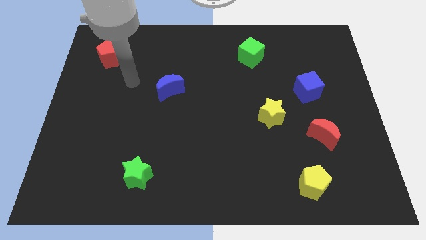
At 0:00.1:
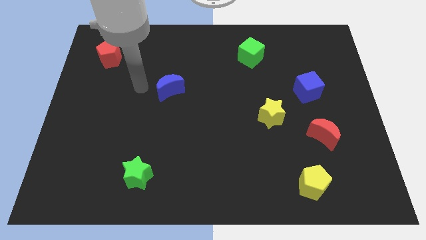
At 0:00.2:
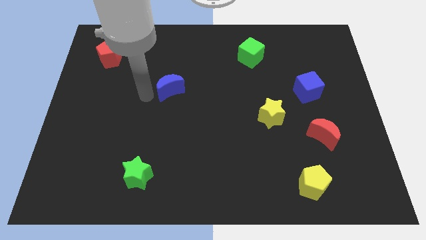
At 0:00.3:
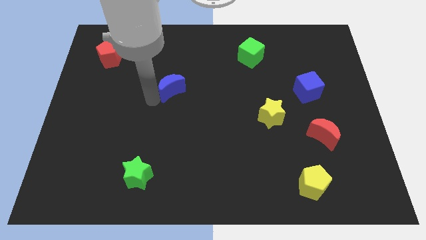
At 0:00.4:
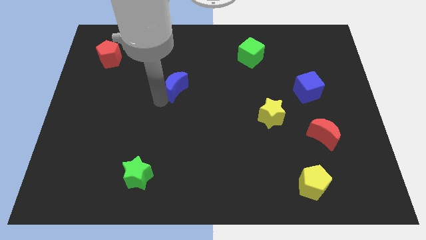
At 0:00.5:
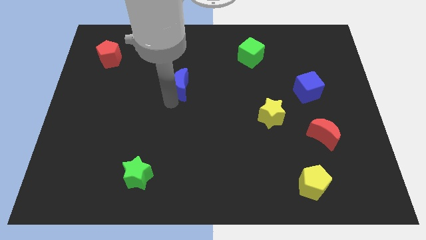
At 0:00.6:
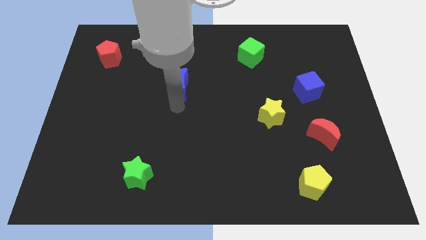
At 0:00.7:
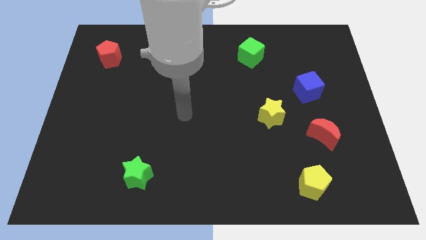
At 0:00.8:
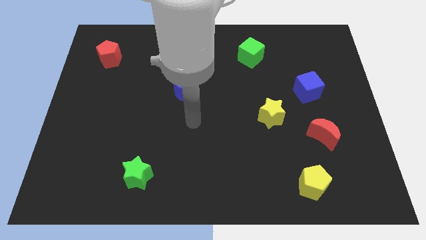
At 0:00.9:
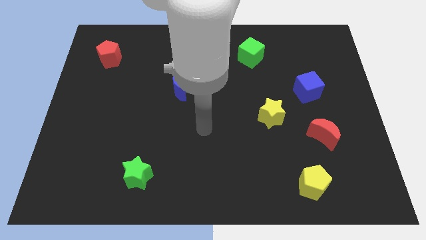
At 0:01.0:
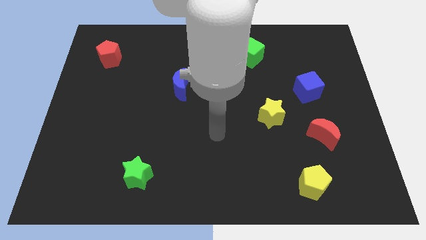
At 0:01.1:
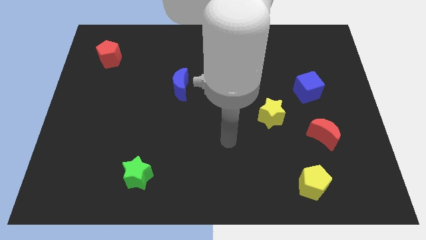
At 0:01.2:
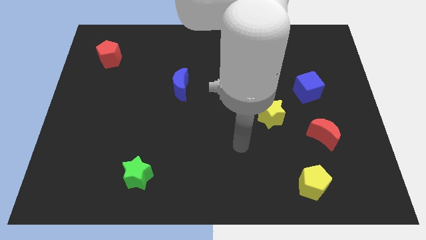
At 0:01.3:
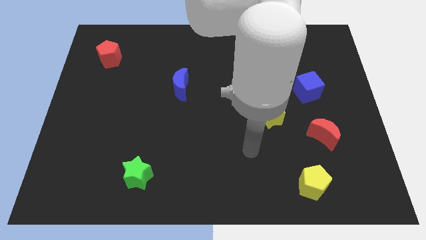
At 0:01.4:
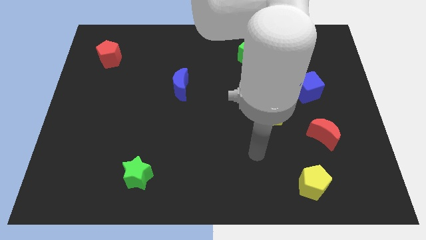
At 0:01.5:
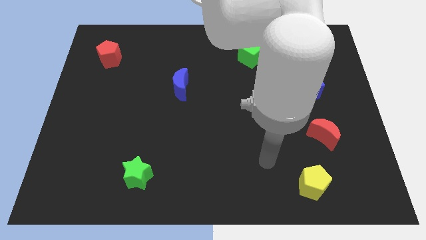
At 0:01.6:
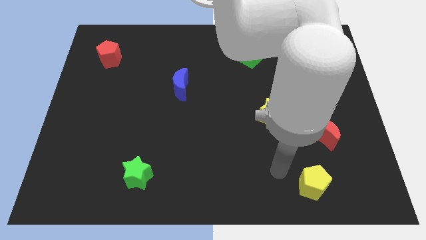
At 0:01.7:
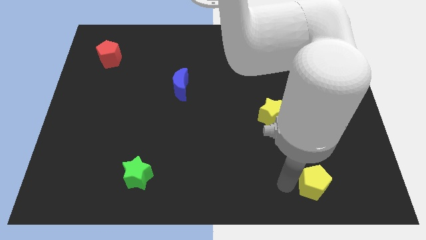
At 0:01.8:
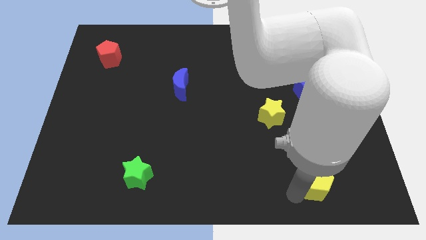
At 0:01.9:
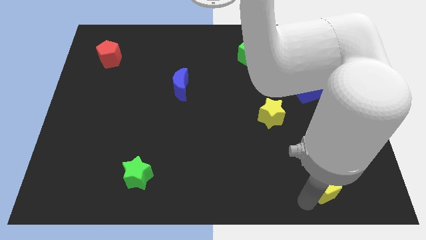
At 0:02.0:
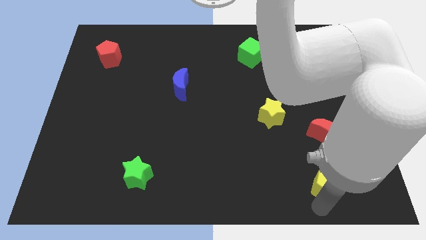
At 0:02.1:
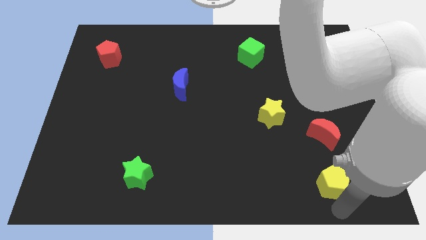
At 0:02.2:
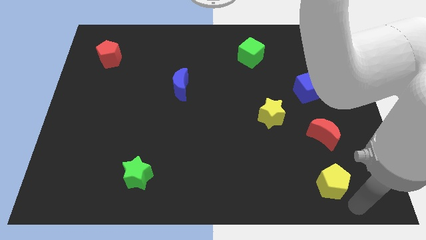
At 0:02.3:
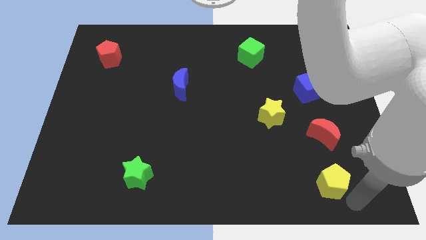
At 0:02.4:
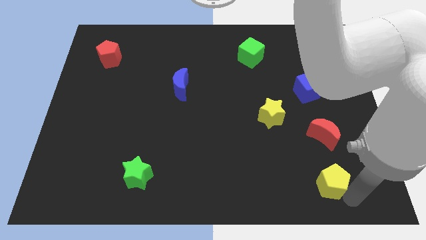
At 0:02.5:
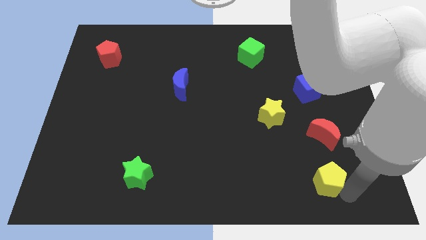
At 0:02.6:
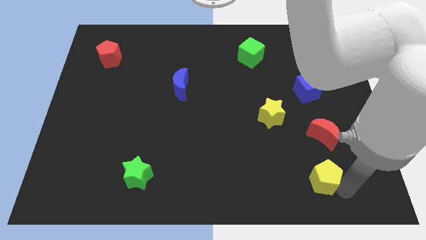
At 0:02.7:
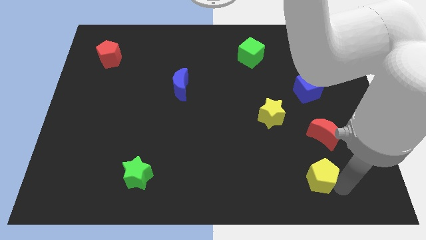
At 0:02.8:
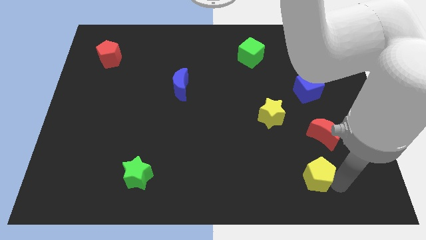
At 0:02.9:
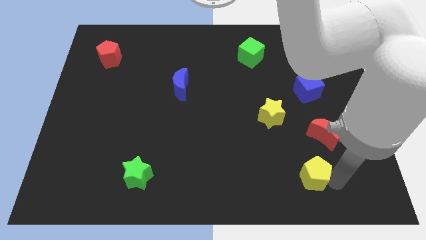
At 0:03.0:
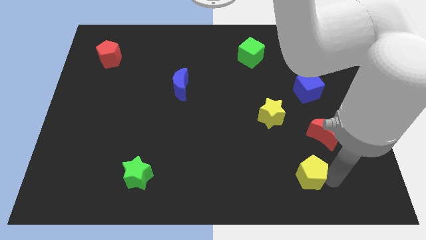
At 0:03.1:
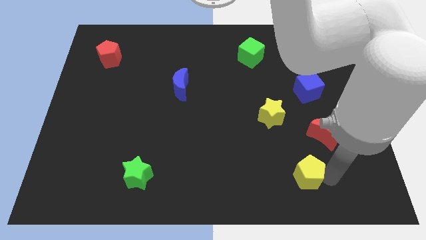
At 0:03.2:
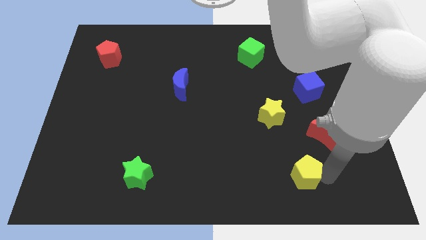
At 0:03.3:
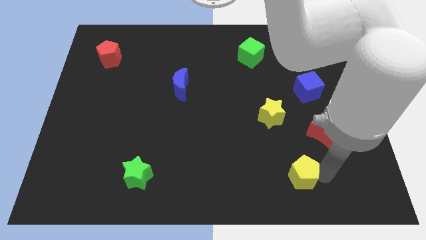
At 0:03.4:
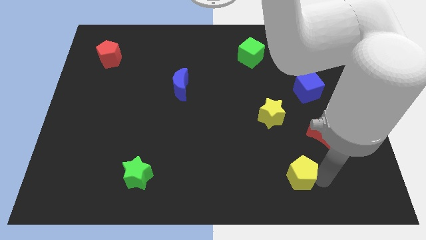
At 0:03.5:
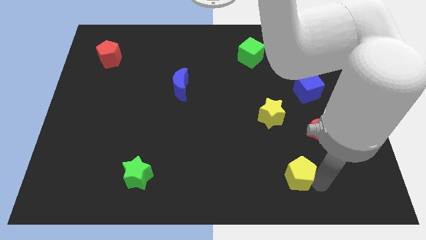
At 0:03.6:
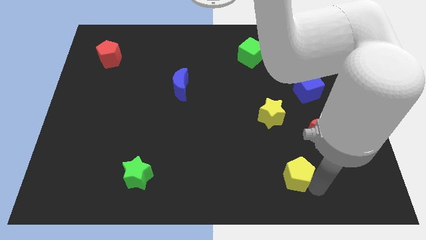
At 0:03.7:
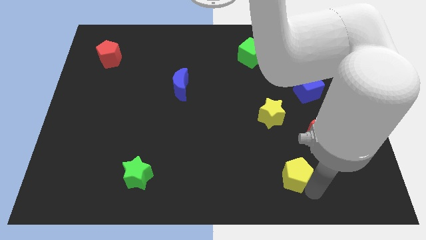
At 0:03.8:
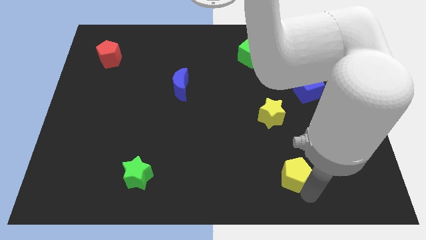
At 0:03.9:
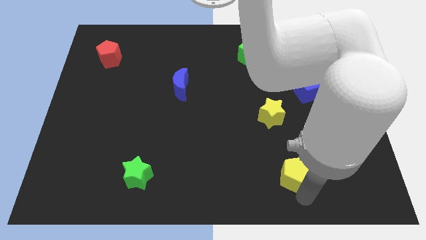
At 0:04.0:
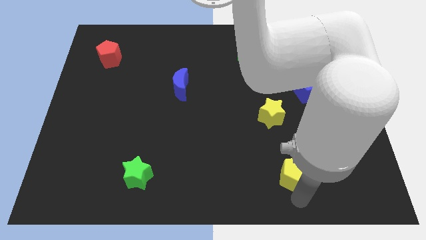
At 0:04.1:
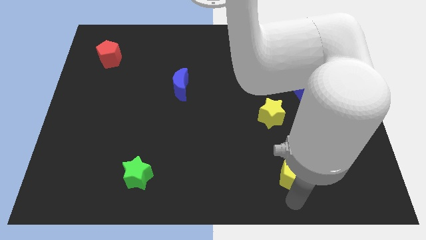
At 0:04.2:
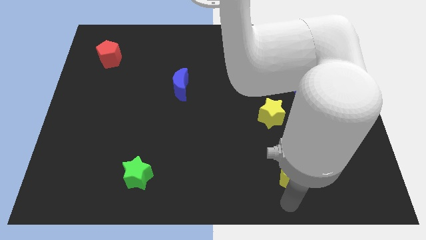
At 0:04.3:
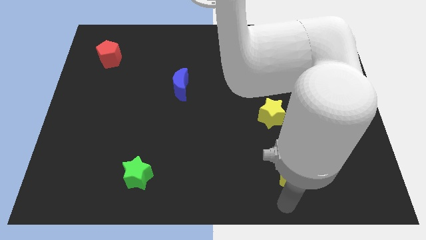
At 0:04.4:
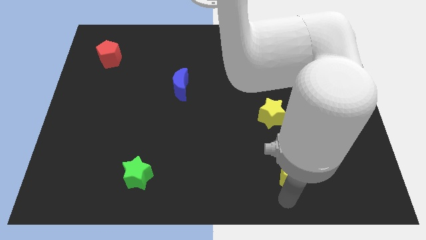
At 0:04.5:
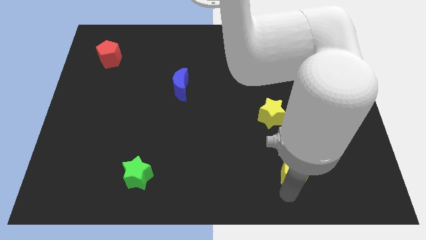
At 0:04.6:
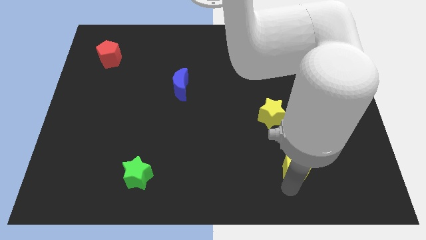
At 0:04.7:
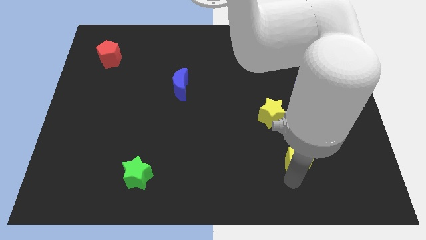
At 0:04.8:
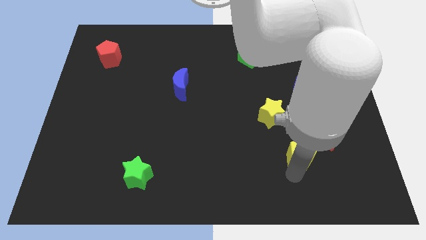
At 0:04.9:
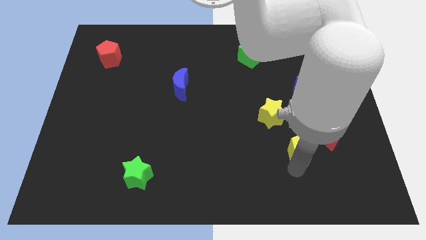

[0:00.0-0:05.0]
slightly slide the yellow pentagon up

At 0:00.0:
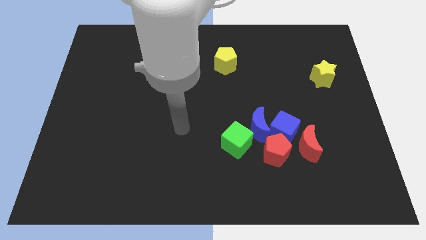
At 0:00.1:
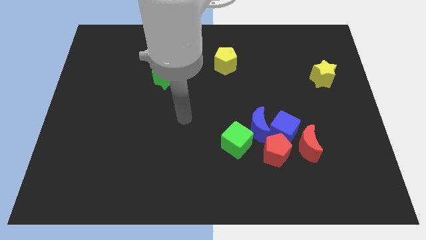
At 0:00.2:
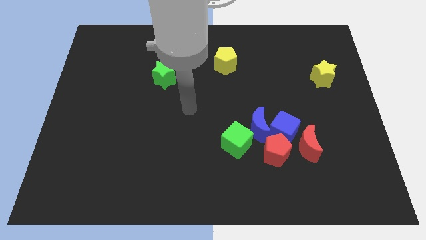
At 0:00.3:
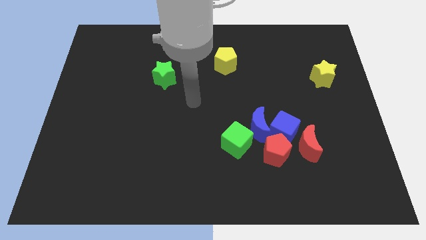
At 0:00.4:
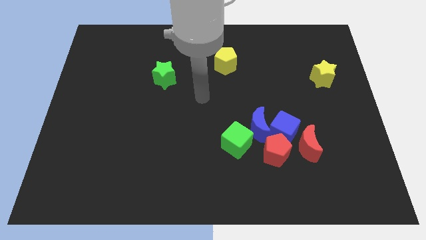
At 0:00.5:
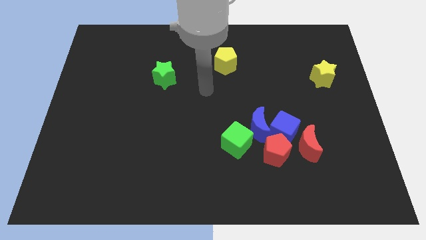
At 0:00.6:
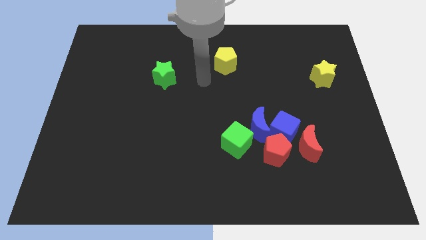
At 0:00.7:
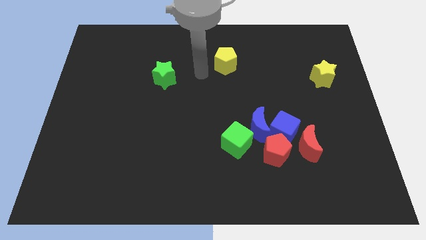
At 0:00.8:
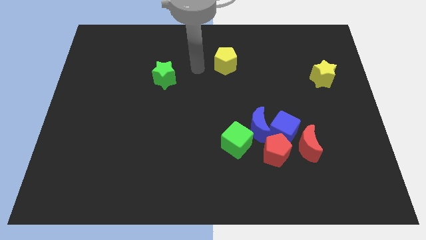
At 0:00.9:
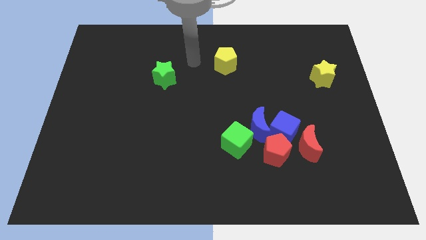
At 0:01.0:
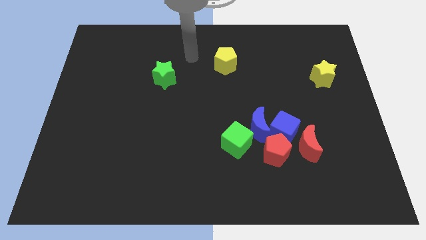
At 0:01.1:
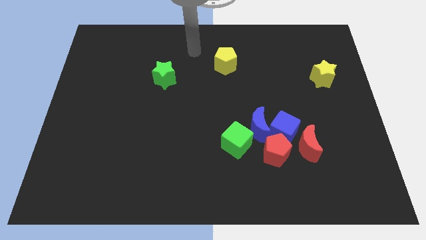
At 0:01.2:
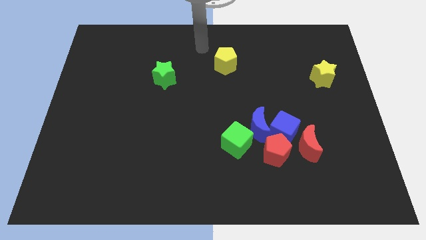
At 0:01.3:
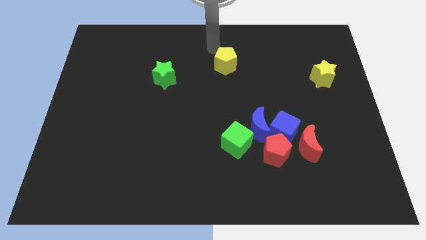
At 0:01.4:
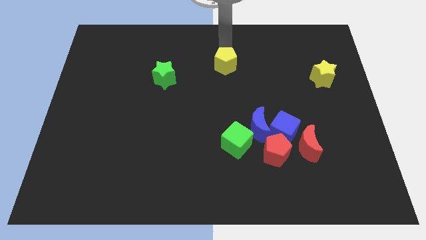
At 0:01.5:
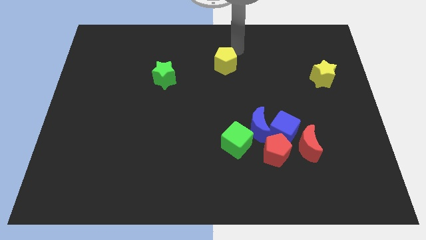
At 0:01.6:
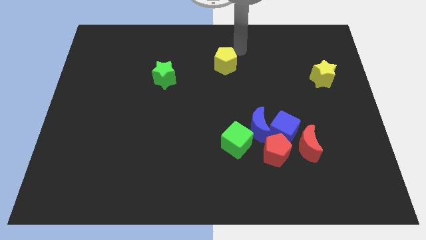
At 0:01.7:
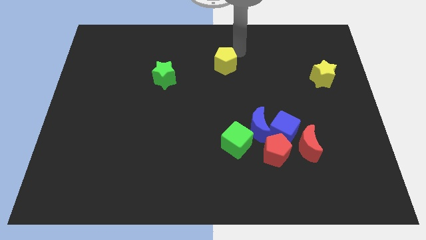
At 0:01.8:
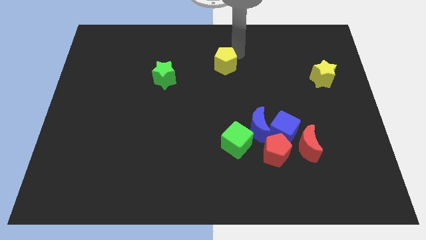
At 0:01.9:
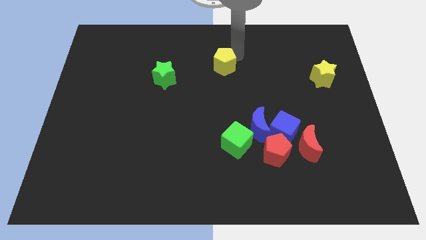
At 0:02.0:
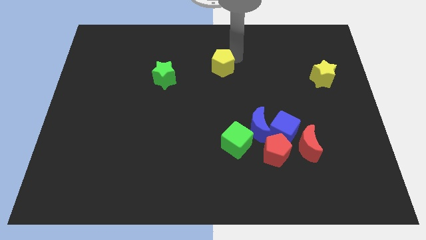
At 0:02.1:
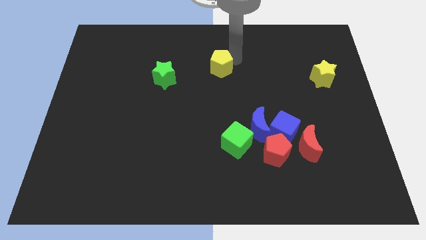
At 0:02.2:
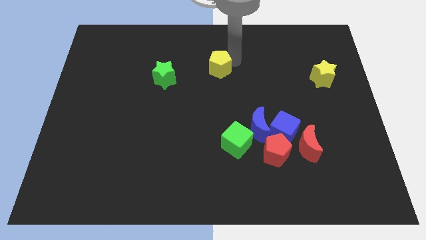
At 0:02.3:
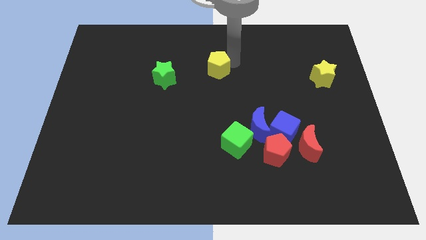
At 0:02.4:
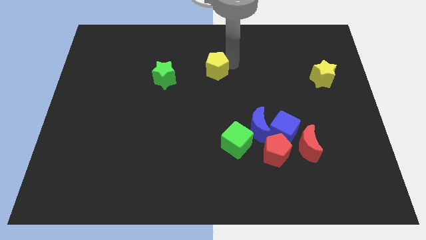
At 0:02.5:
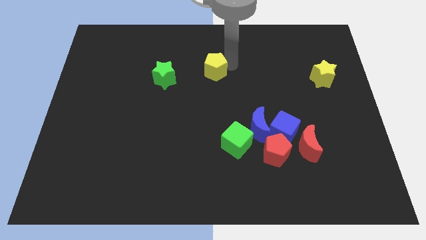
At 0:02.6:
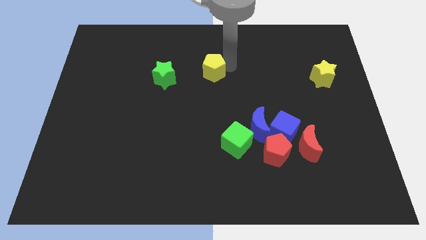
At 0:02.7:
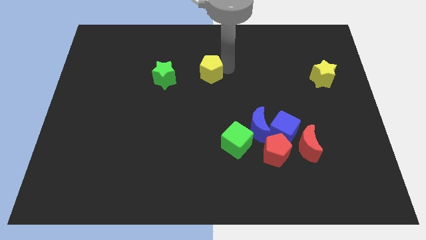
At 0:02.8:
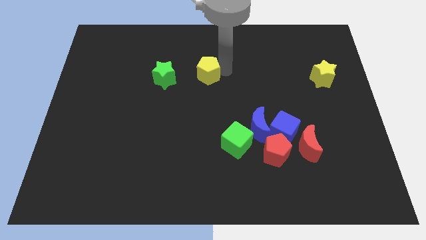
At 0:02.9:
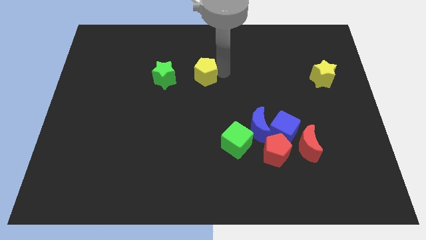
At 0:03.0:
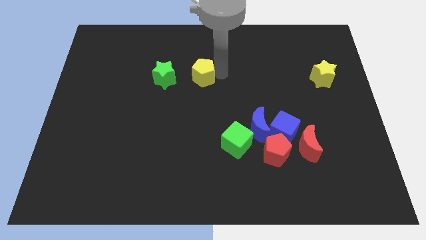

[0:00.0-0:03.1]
slightly push the yellow pentagon downwards and then left
